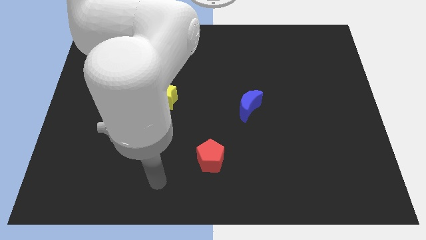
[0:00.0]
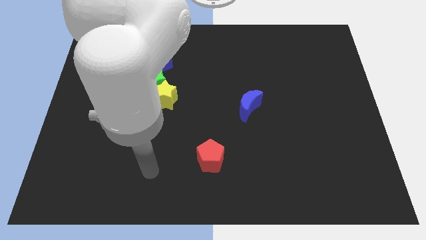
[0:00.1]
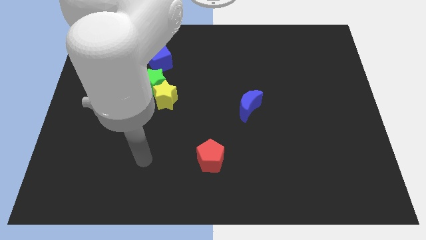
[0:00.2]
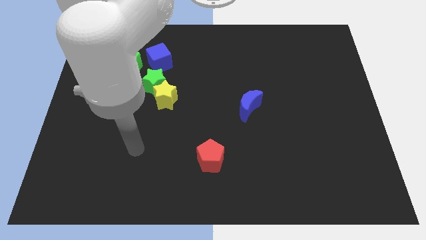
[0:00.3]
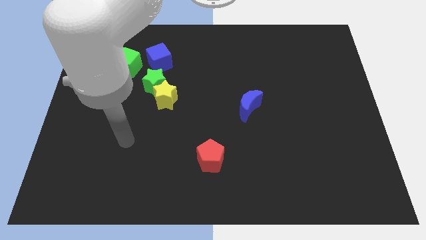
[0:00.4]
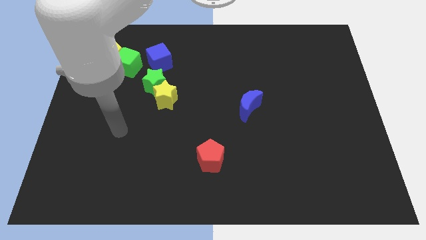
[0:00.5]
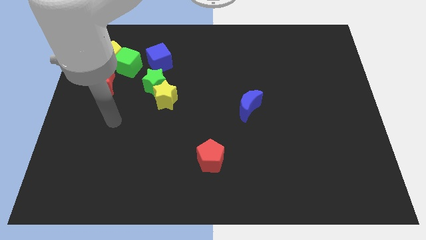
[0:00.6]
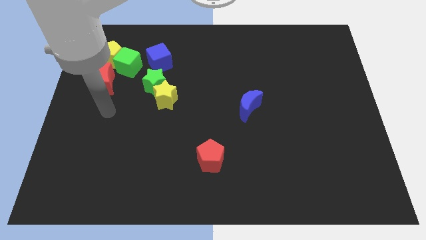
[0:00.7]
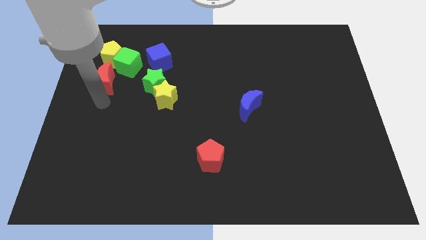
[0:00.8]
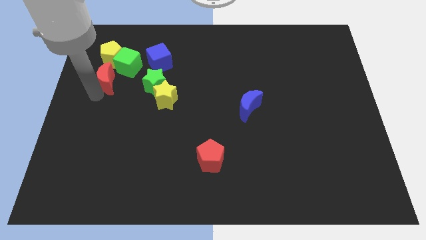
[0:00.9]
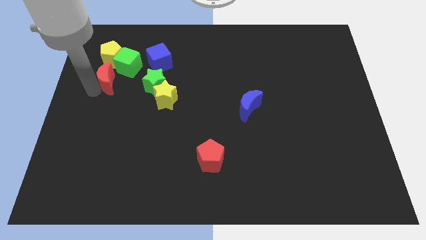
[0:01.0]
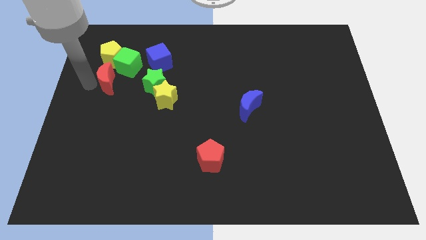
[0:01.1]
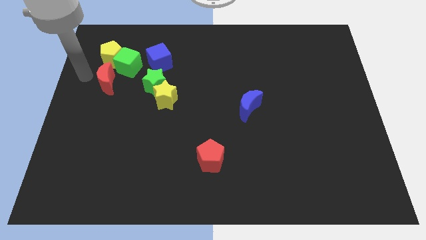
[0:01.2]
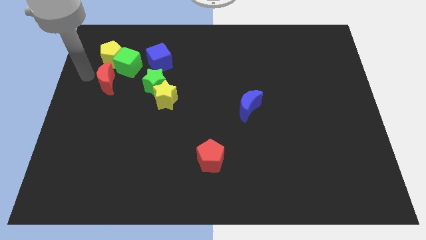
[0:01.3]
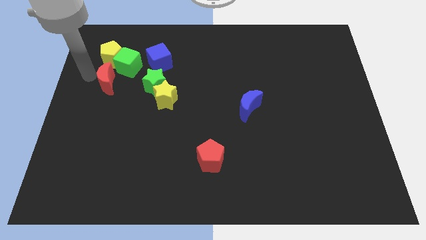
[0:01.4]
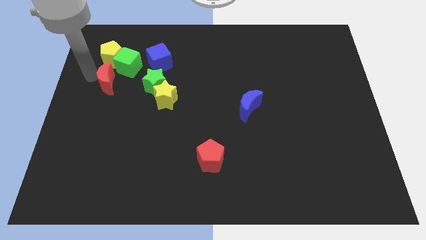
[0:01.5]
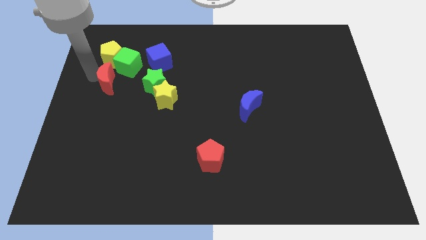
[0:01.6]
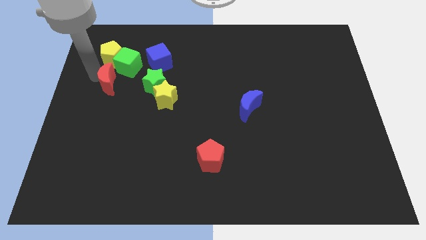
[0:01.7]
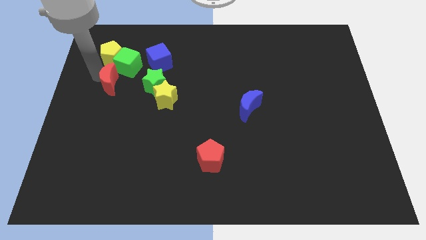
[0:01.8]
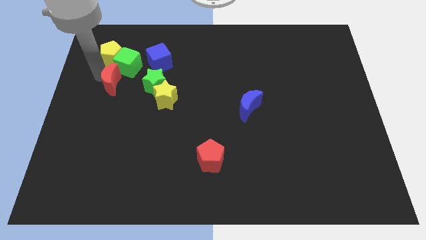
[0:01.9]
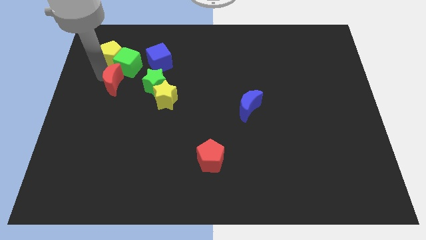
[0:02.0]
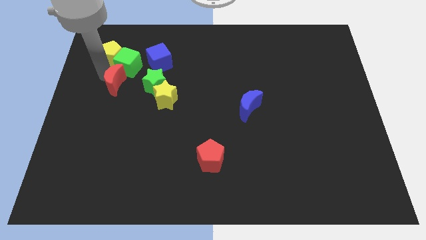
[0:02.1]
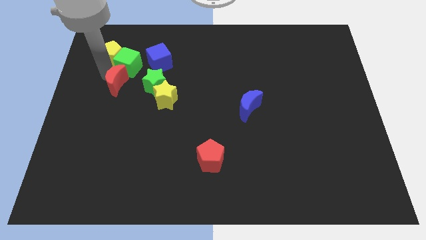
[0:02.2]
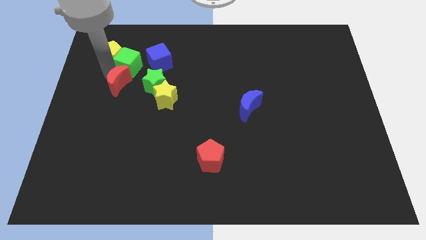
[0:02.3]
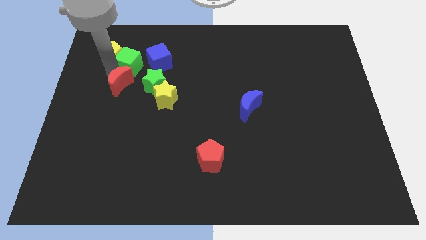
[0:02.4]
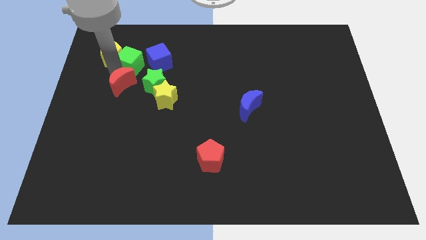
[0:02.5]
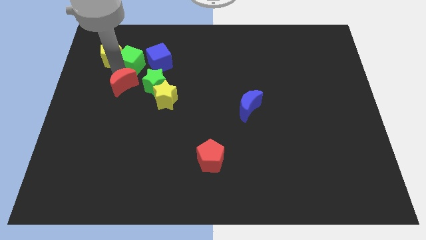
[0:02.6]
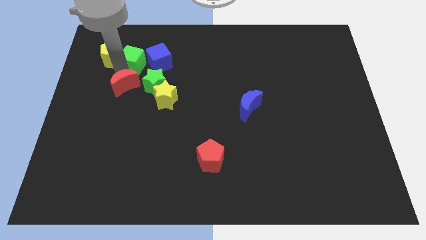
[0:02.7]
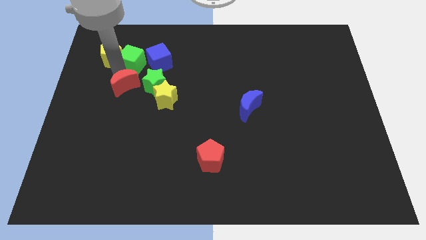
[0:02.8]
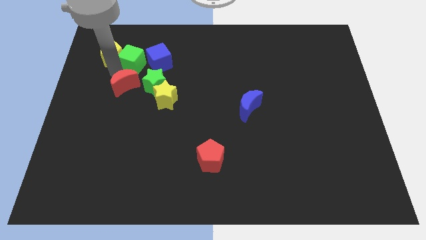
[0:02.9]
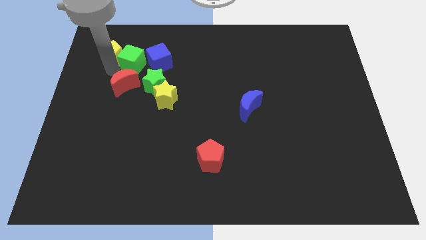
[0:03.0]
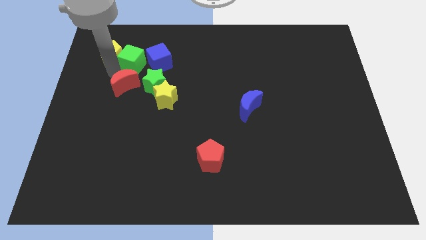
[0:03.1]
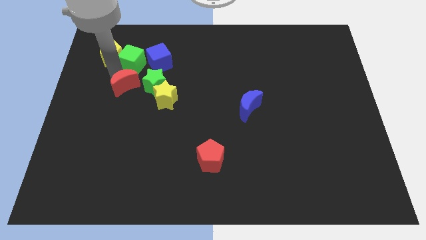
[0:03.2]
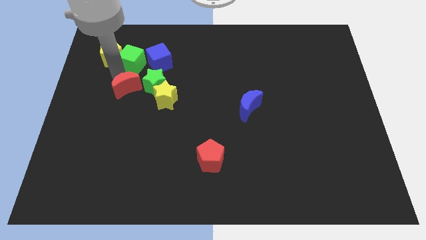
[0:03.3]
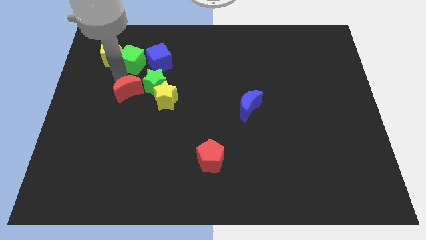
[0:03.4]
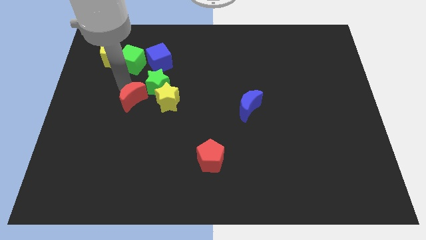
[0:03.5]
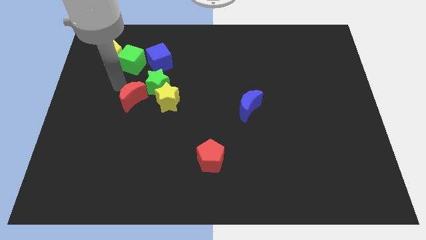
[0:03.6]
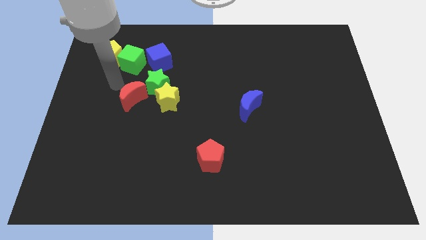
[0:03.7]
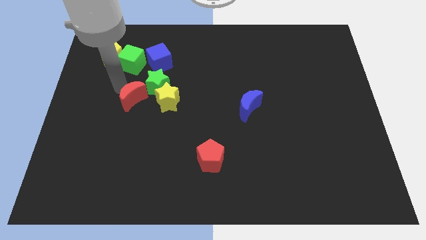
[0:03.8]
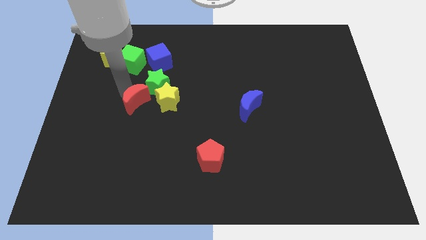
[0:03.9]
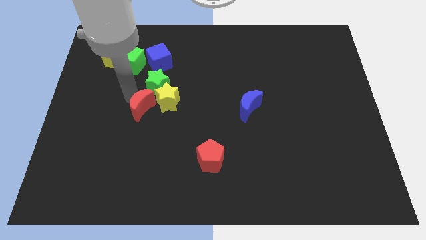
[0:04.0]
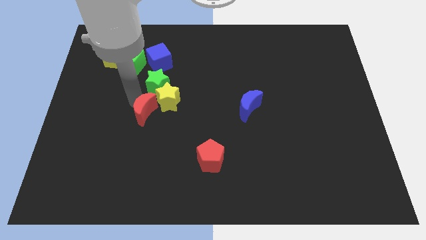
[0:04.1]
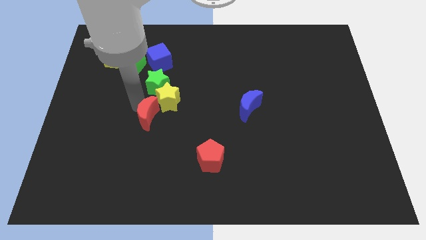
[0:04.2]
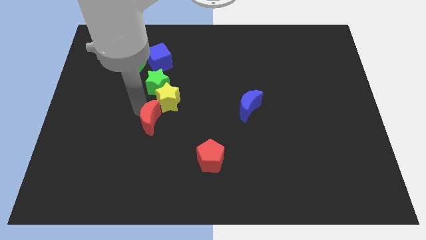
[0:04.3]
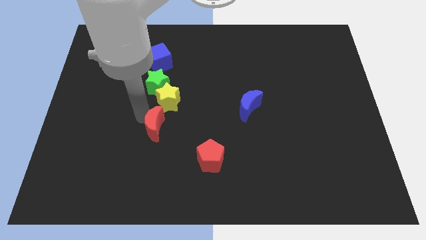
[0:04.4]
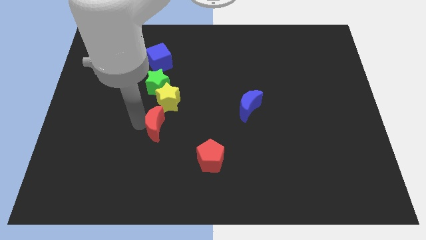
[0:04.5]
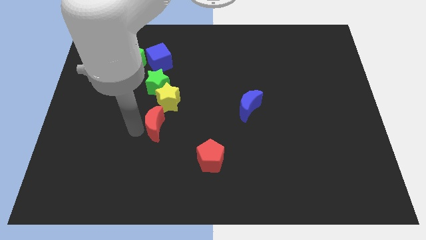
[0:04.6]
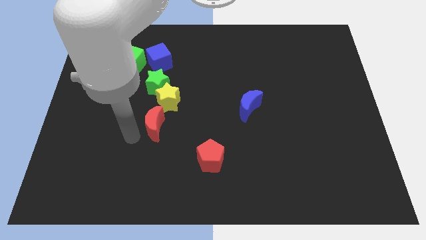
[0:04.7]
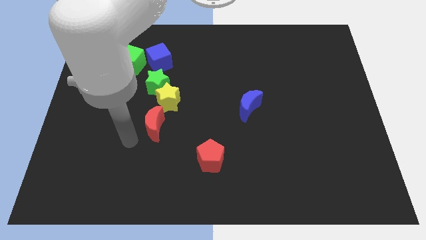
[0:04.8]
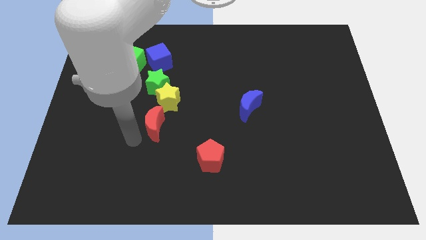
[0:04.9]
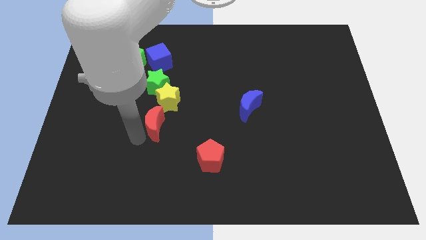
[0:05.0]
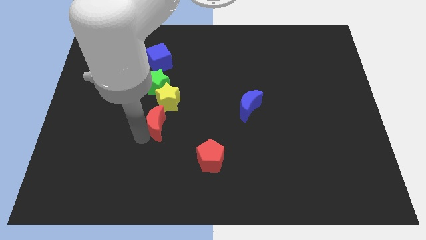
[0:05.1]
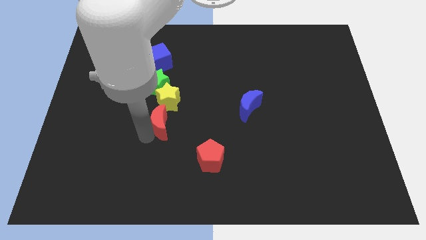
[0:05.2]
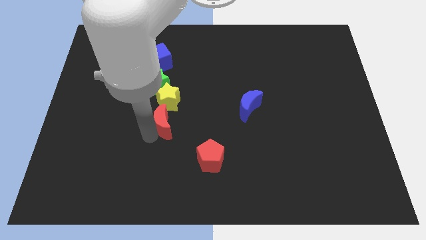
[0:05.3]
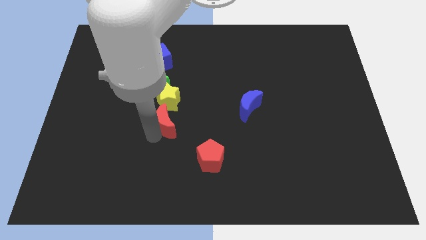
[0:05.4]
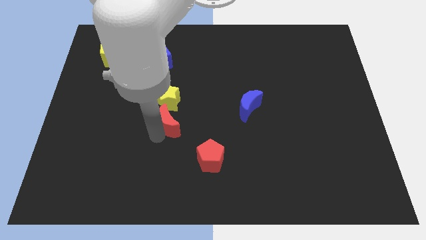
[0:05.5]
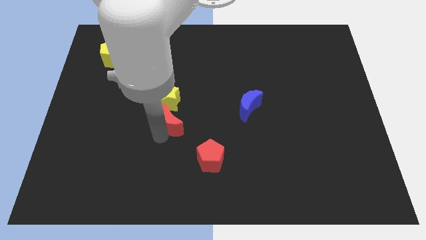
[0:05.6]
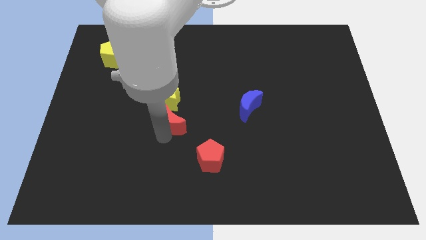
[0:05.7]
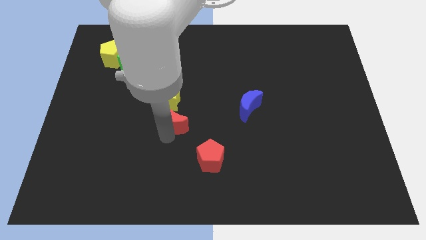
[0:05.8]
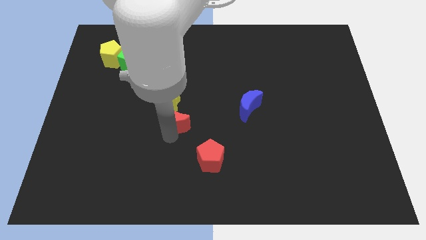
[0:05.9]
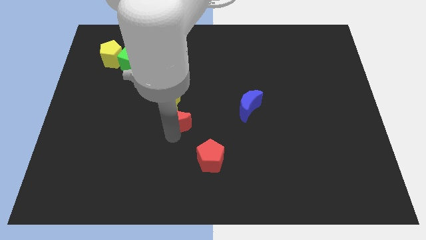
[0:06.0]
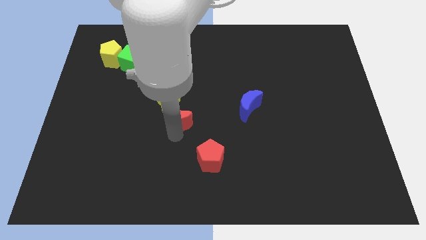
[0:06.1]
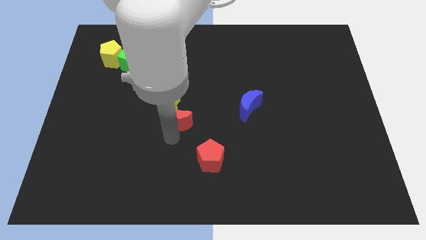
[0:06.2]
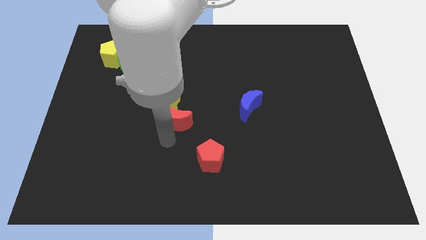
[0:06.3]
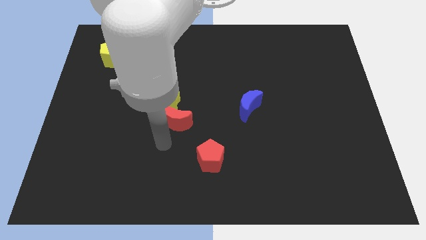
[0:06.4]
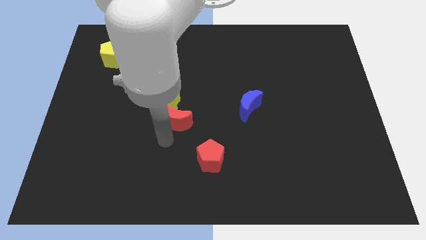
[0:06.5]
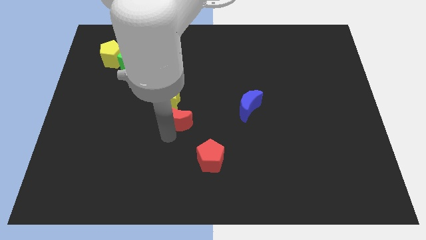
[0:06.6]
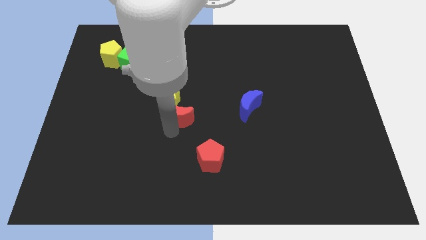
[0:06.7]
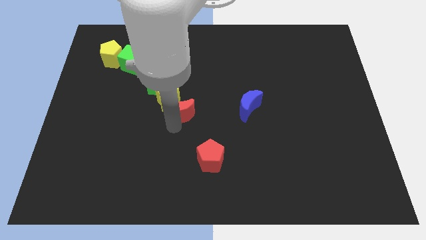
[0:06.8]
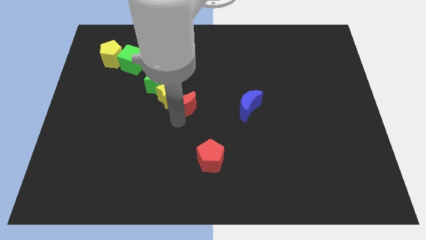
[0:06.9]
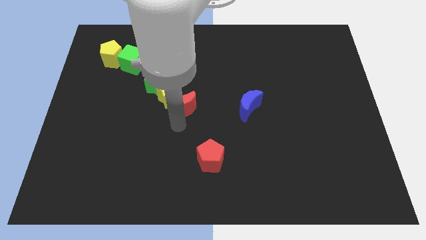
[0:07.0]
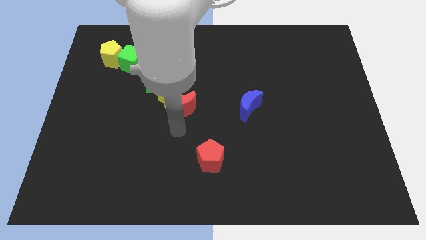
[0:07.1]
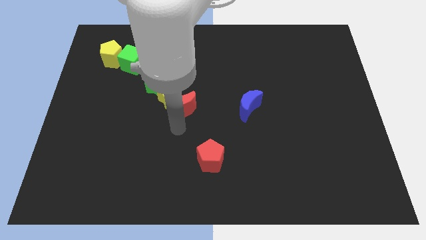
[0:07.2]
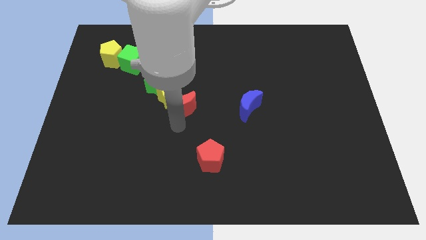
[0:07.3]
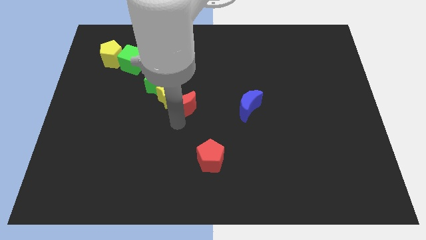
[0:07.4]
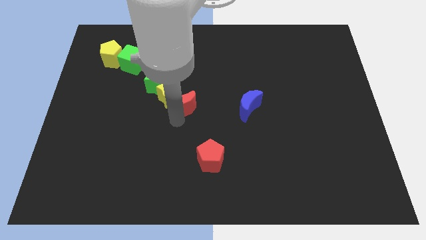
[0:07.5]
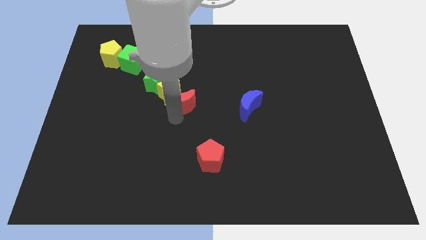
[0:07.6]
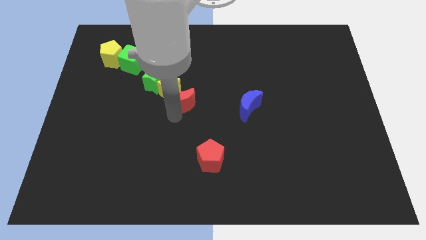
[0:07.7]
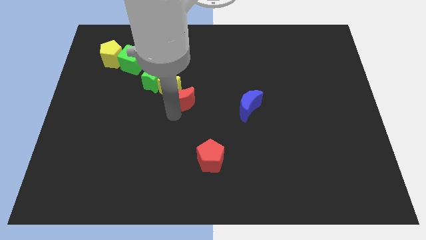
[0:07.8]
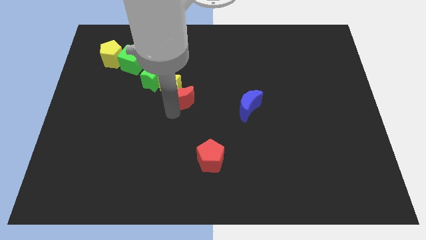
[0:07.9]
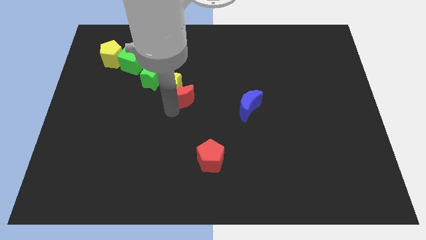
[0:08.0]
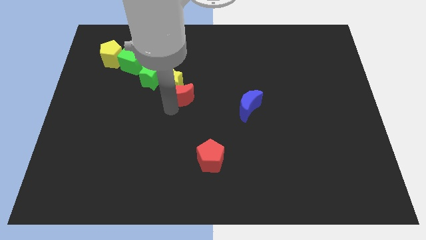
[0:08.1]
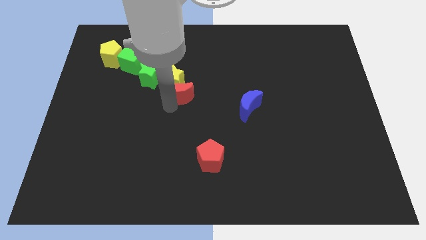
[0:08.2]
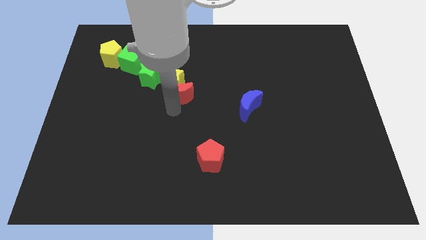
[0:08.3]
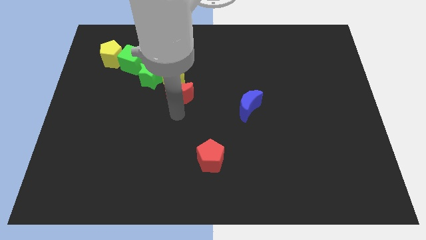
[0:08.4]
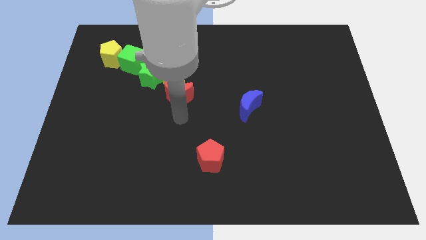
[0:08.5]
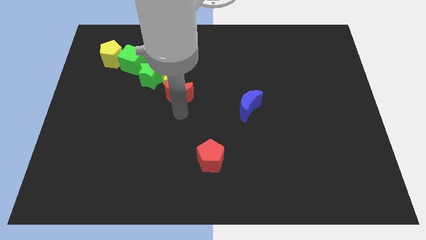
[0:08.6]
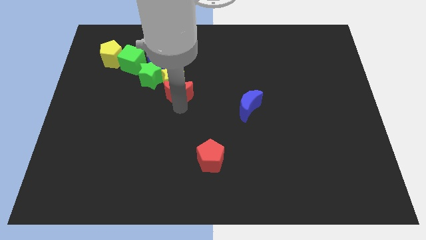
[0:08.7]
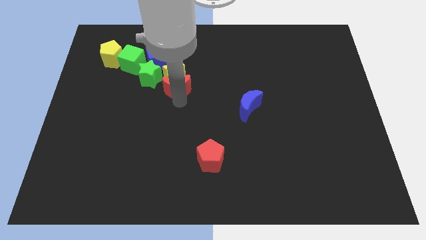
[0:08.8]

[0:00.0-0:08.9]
push the red moon diagonally down and to the right of the blue cube
